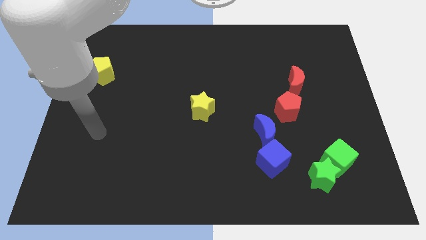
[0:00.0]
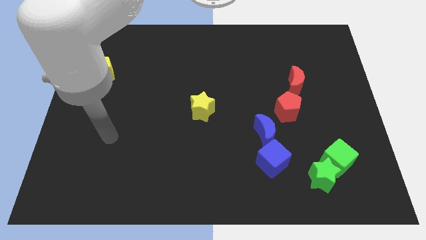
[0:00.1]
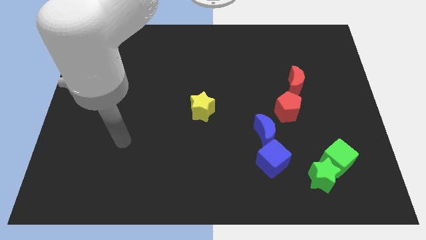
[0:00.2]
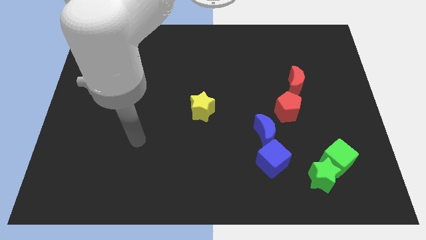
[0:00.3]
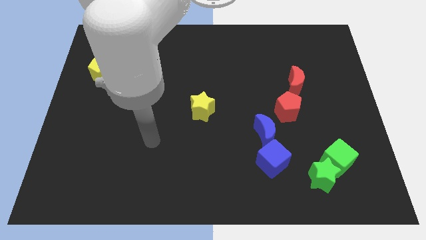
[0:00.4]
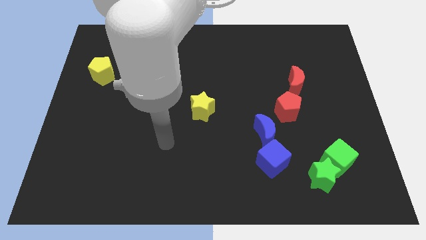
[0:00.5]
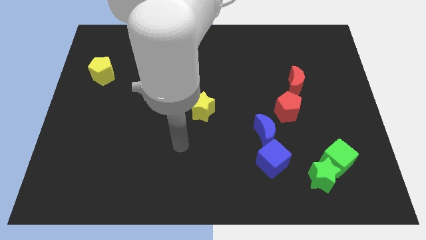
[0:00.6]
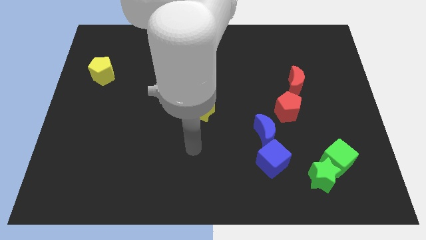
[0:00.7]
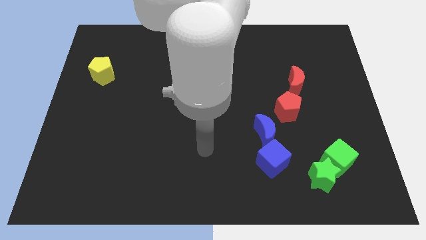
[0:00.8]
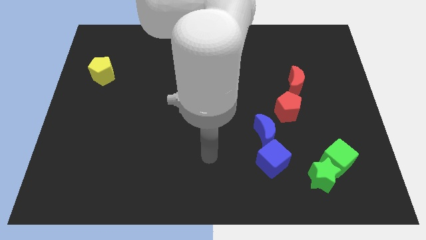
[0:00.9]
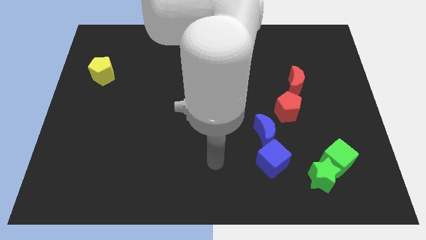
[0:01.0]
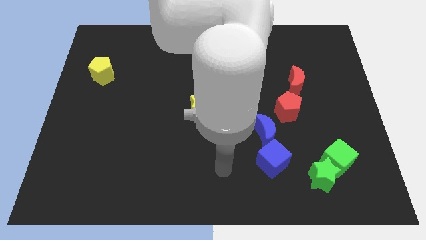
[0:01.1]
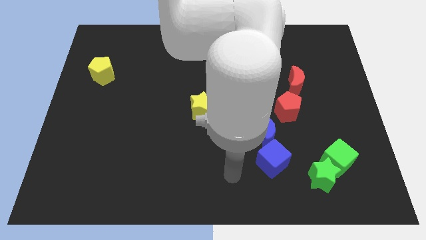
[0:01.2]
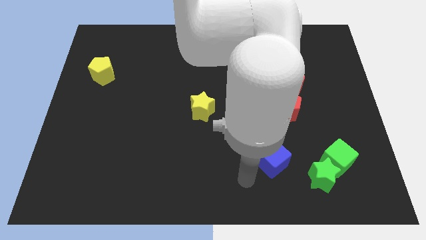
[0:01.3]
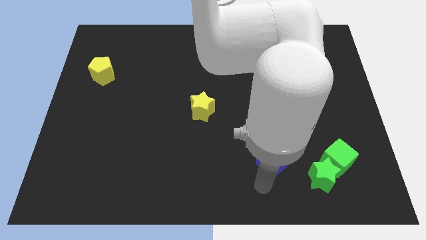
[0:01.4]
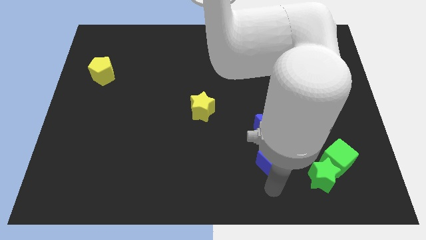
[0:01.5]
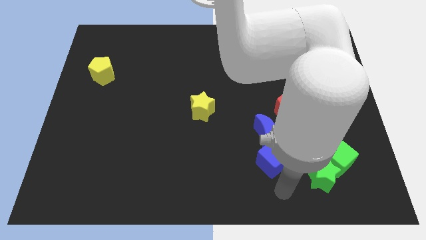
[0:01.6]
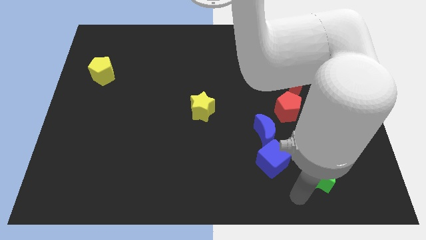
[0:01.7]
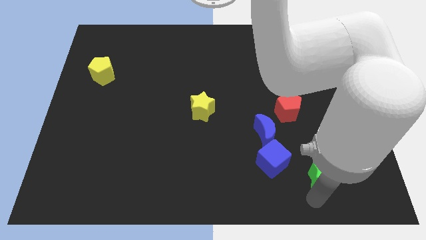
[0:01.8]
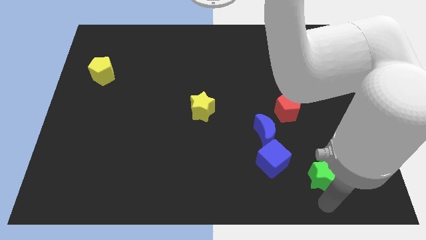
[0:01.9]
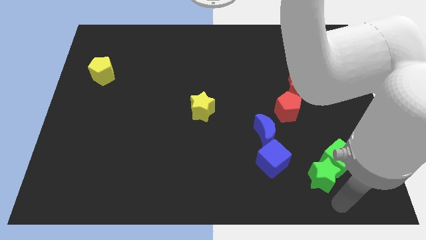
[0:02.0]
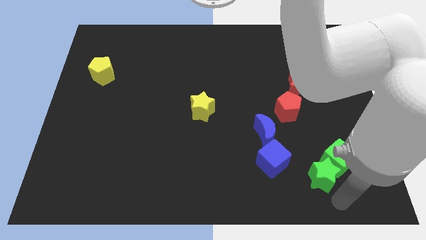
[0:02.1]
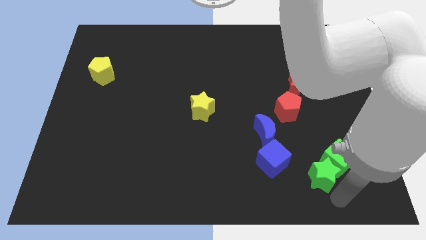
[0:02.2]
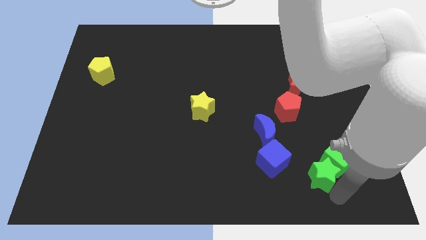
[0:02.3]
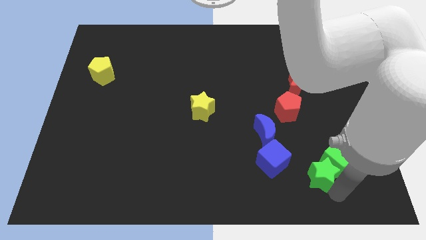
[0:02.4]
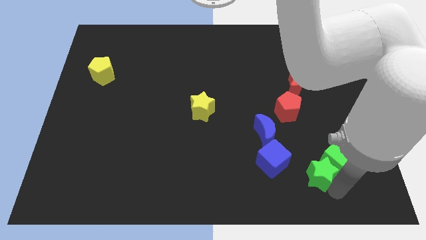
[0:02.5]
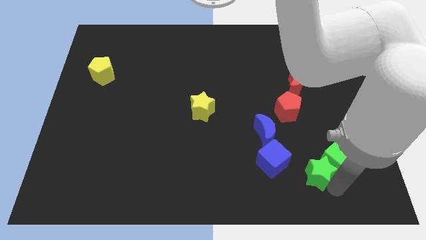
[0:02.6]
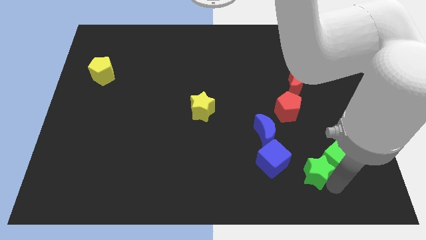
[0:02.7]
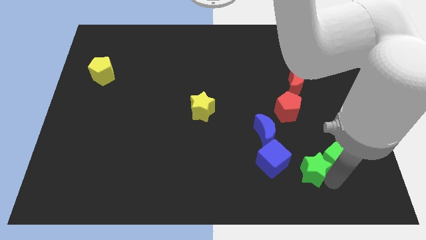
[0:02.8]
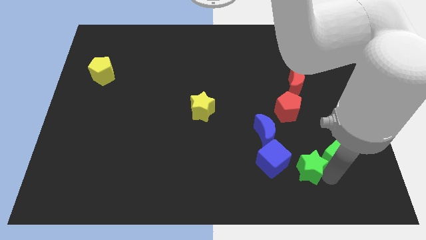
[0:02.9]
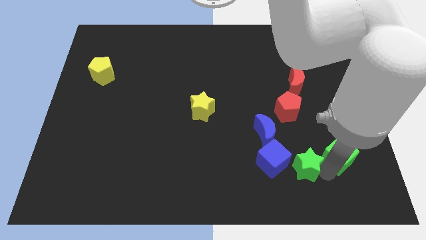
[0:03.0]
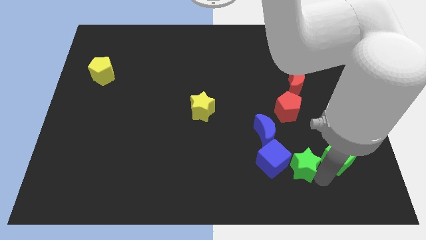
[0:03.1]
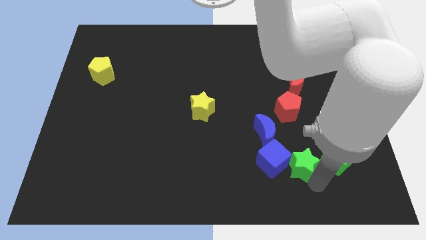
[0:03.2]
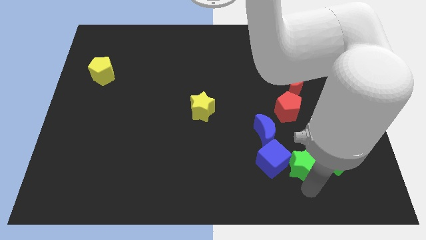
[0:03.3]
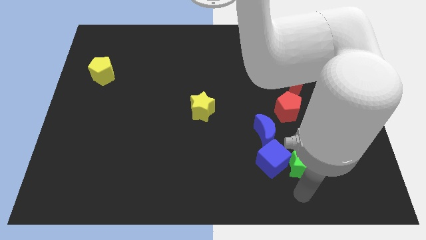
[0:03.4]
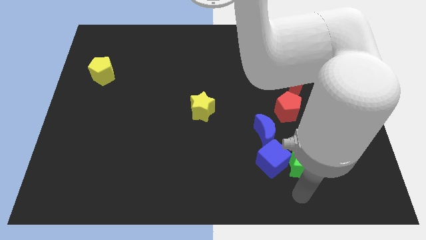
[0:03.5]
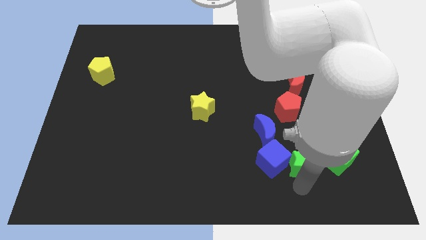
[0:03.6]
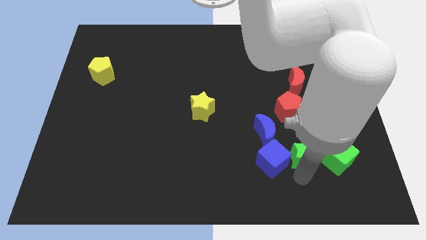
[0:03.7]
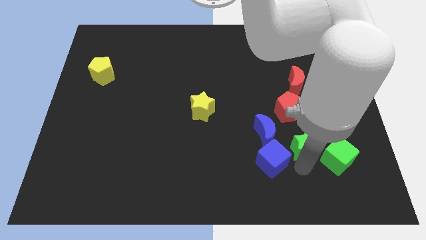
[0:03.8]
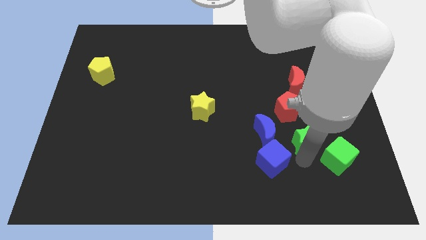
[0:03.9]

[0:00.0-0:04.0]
push the green star a little bit up

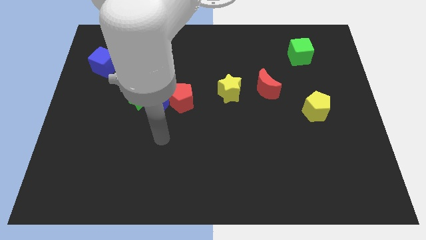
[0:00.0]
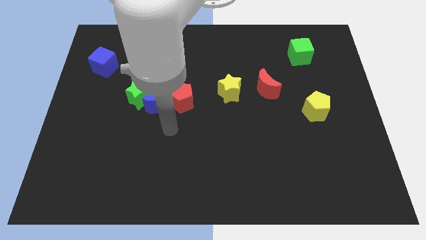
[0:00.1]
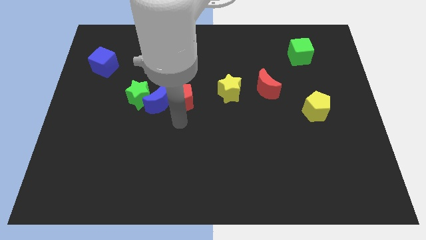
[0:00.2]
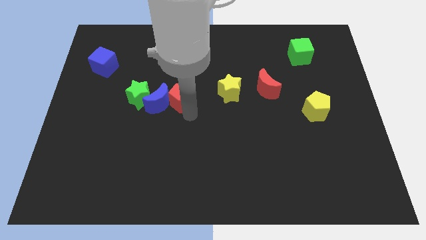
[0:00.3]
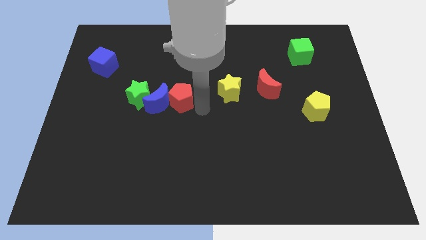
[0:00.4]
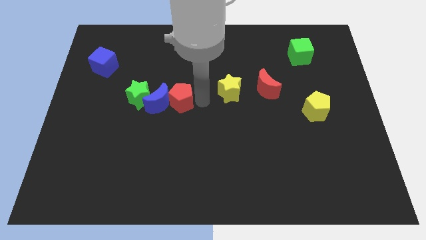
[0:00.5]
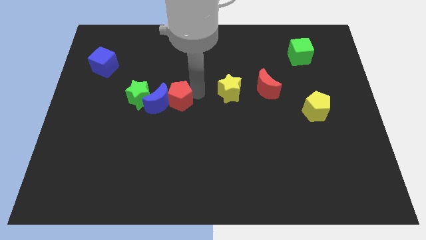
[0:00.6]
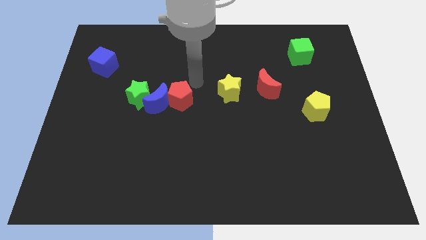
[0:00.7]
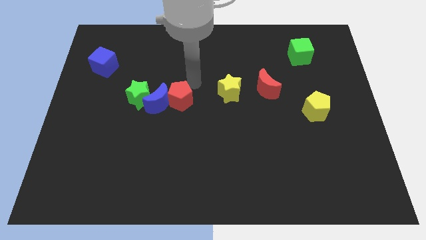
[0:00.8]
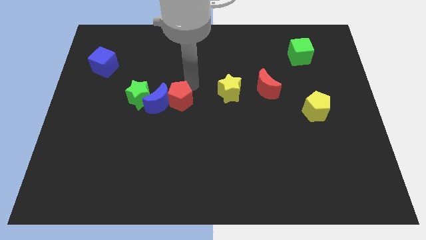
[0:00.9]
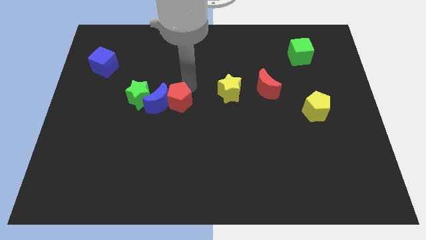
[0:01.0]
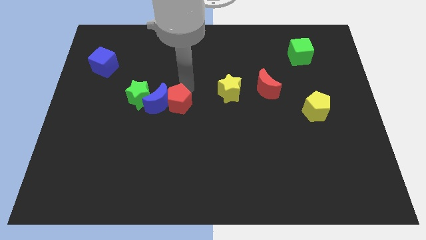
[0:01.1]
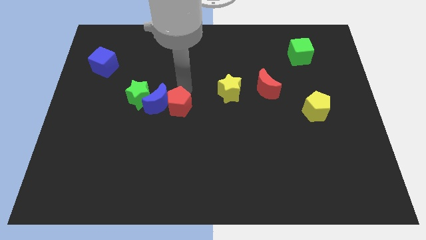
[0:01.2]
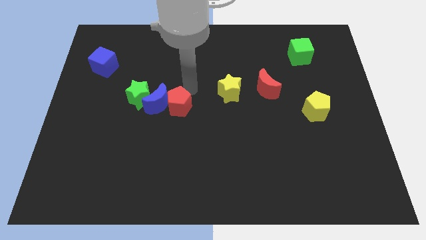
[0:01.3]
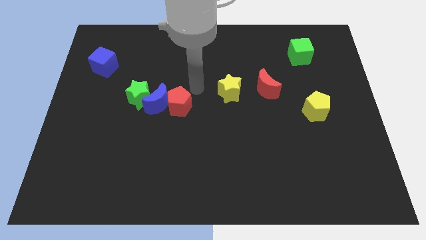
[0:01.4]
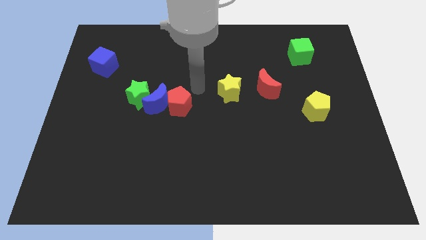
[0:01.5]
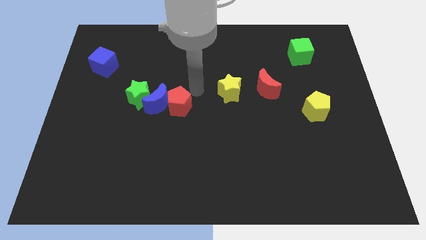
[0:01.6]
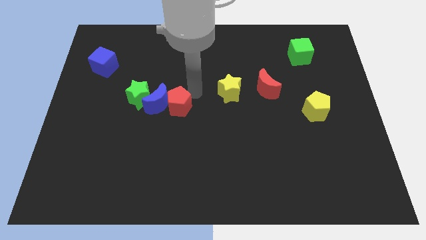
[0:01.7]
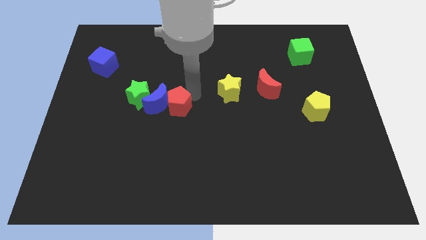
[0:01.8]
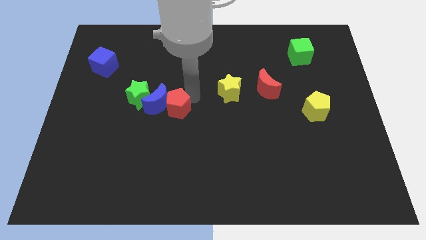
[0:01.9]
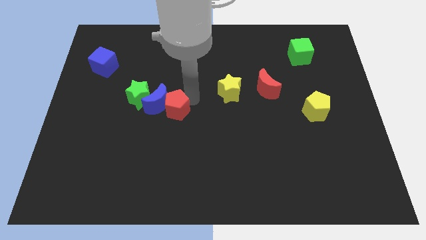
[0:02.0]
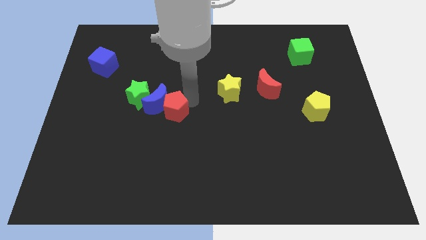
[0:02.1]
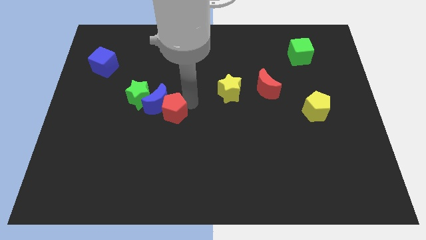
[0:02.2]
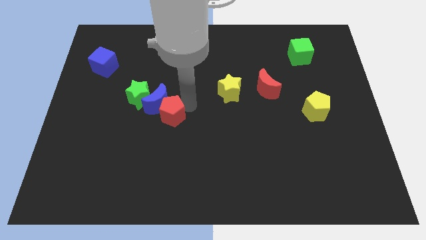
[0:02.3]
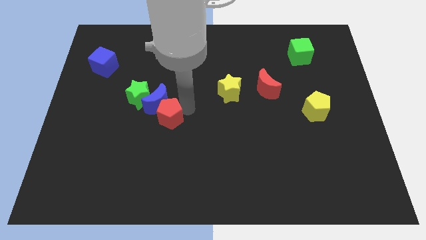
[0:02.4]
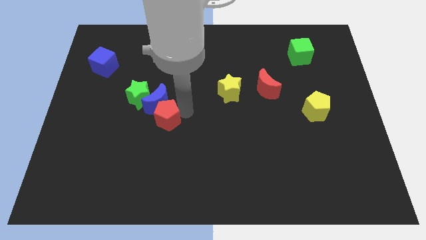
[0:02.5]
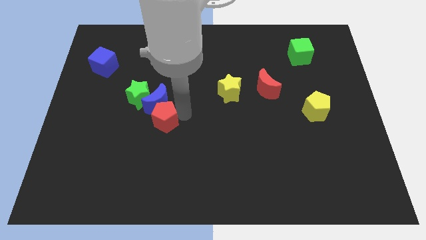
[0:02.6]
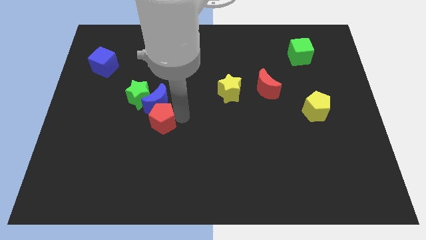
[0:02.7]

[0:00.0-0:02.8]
slightly push the red pentagon diagonally downwards and left

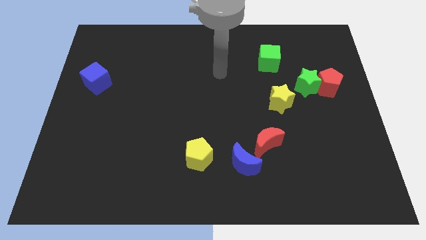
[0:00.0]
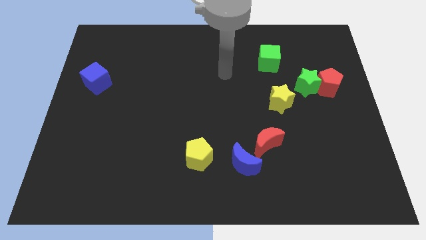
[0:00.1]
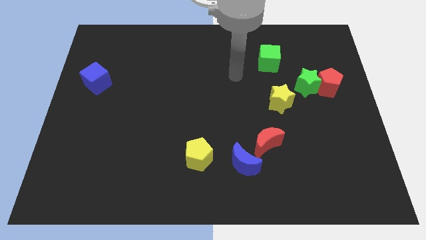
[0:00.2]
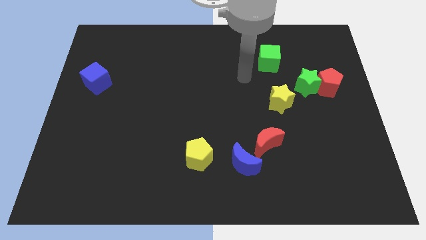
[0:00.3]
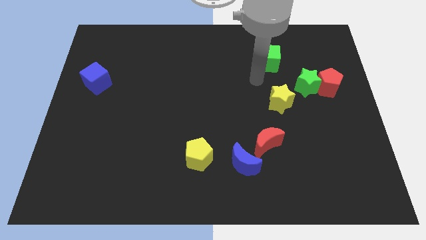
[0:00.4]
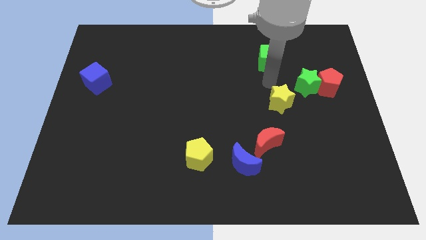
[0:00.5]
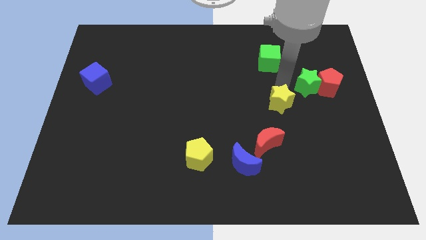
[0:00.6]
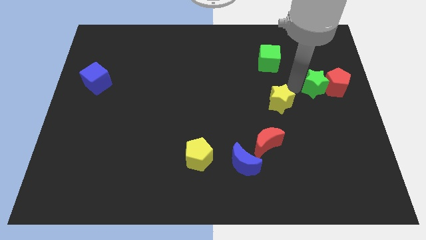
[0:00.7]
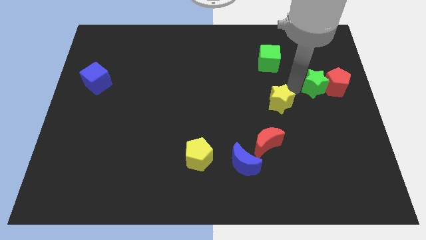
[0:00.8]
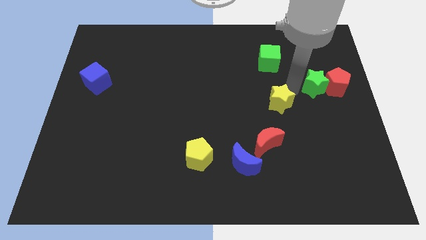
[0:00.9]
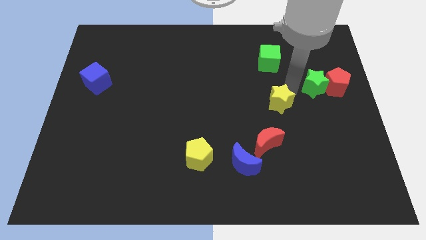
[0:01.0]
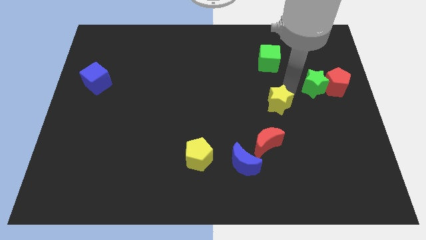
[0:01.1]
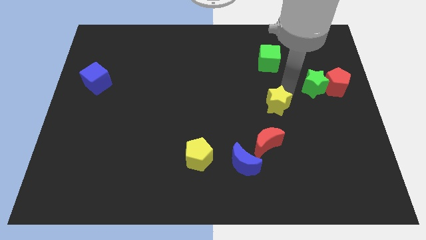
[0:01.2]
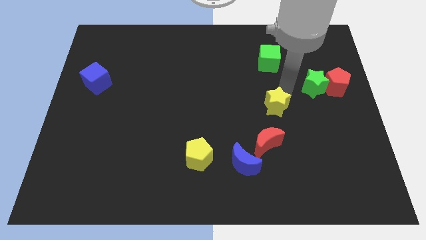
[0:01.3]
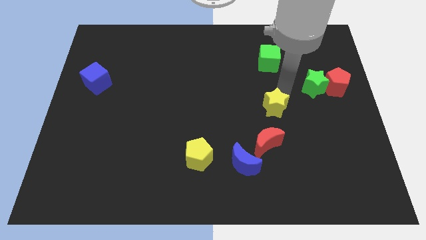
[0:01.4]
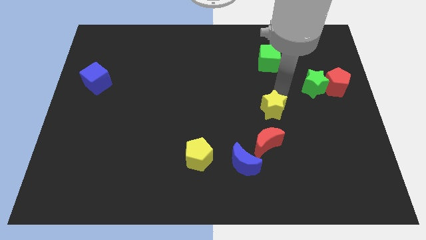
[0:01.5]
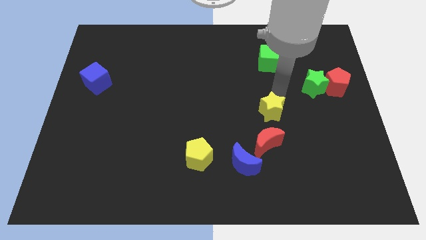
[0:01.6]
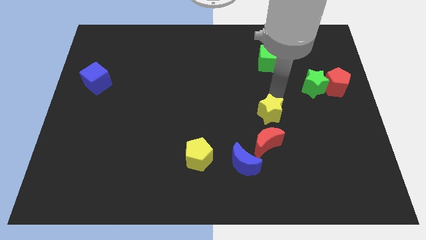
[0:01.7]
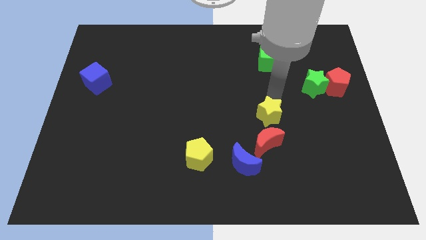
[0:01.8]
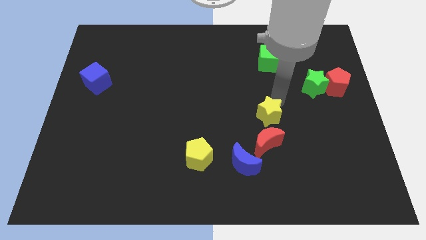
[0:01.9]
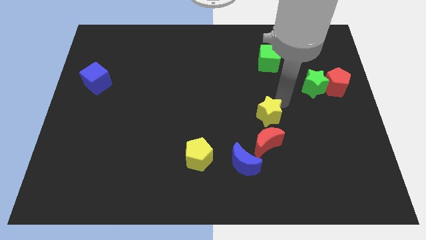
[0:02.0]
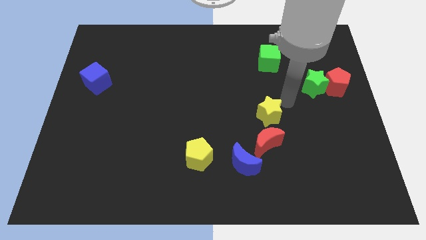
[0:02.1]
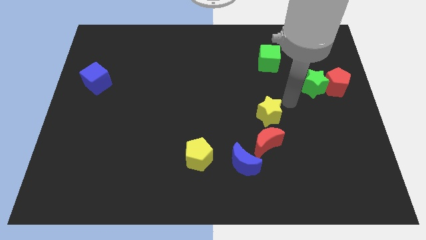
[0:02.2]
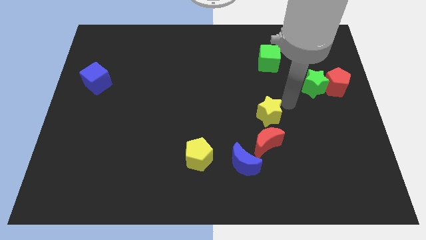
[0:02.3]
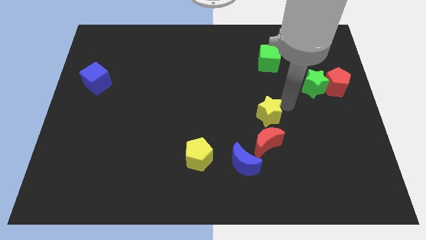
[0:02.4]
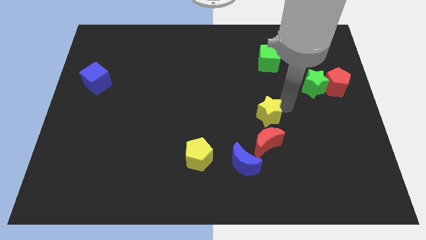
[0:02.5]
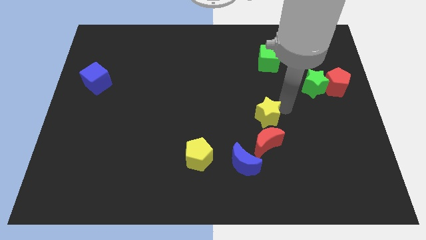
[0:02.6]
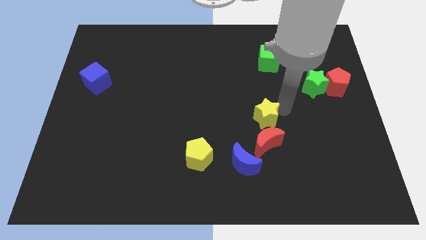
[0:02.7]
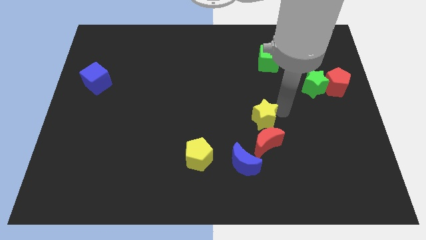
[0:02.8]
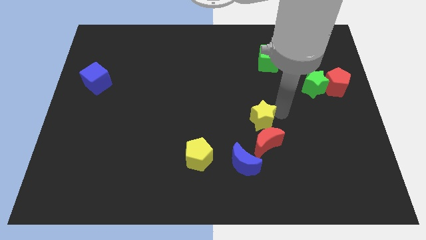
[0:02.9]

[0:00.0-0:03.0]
push the yellow star downwards and then to the left somewhat
